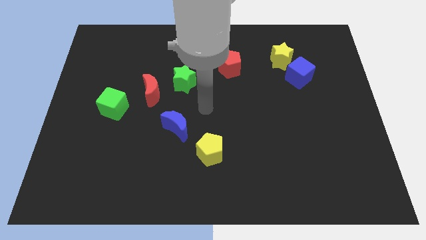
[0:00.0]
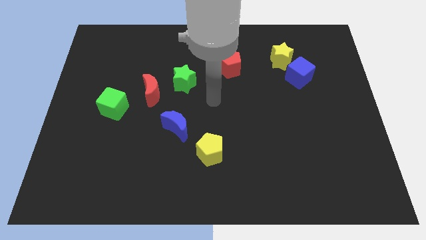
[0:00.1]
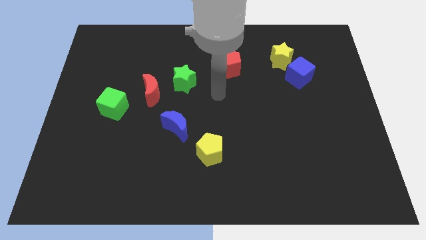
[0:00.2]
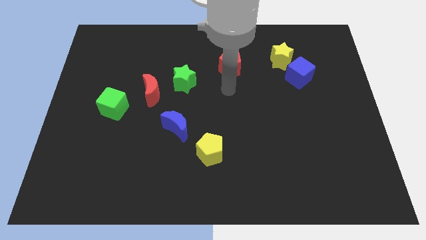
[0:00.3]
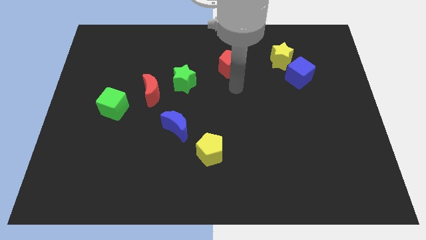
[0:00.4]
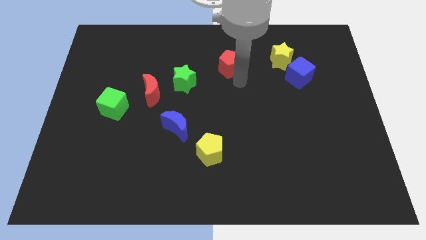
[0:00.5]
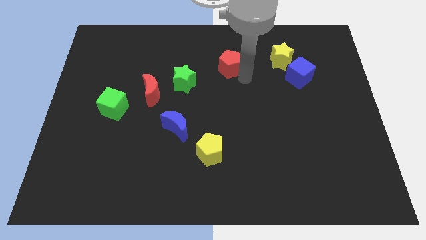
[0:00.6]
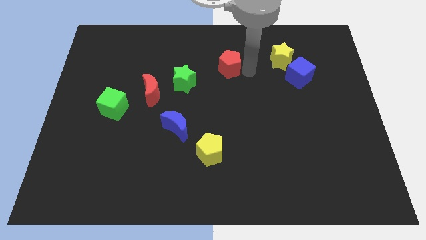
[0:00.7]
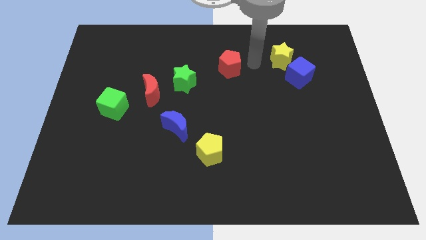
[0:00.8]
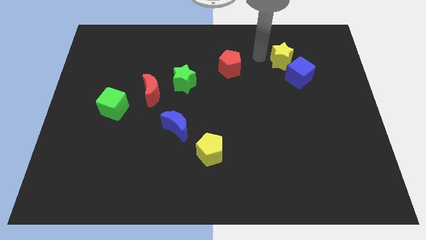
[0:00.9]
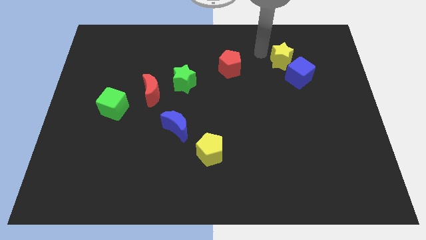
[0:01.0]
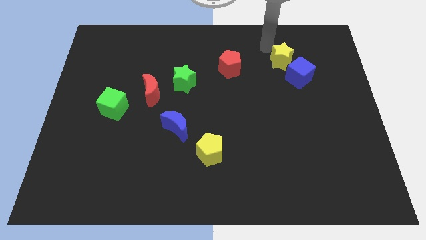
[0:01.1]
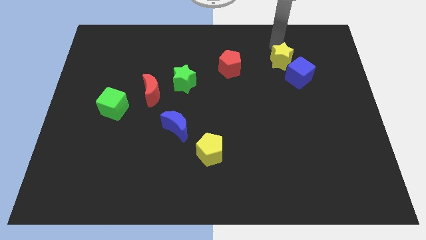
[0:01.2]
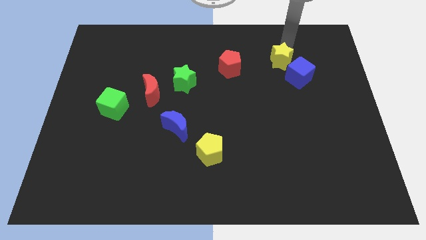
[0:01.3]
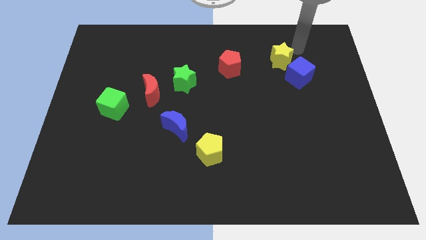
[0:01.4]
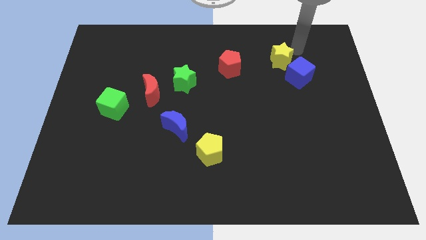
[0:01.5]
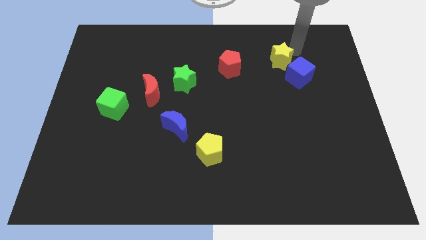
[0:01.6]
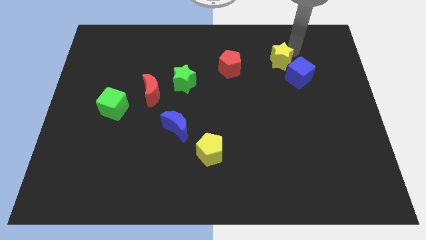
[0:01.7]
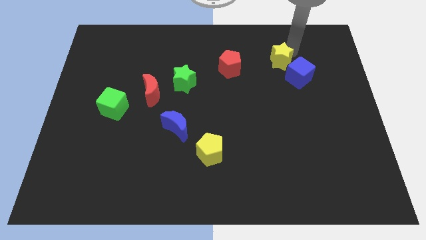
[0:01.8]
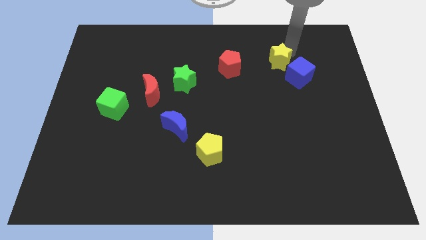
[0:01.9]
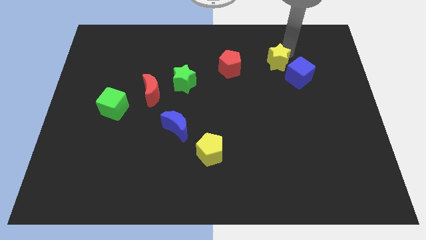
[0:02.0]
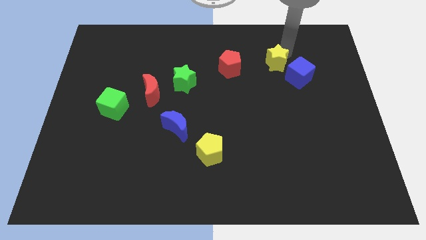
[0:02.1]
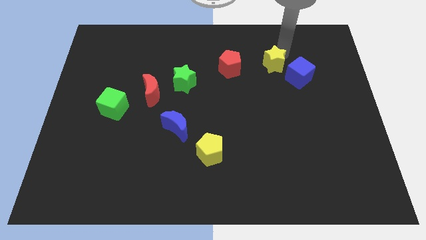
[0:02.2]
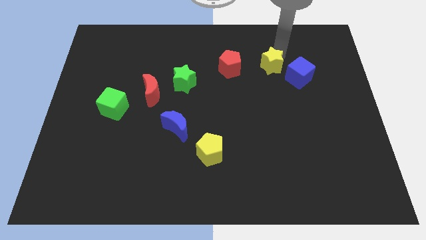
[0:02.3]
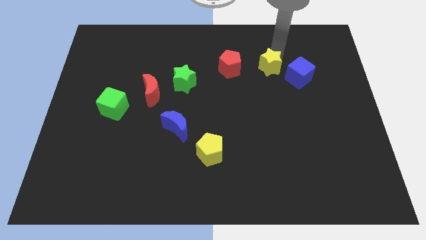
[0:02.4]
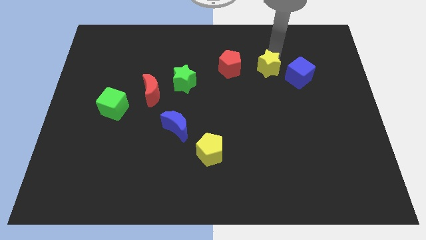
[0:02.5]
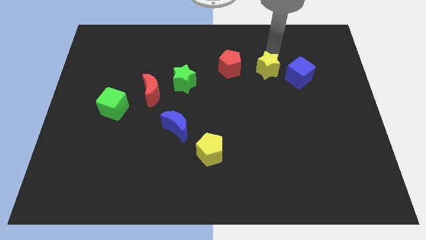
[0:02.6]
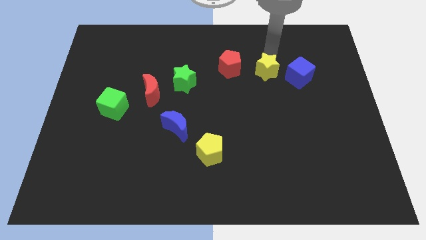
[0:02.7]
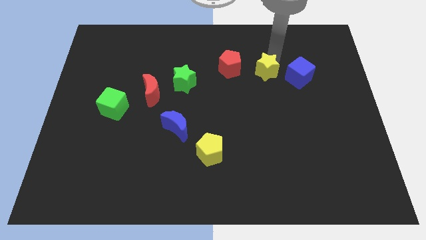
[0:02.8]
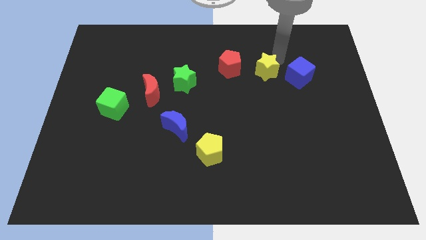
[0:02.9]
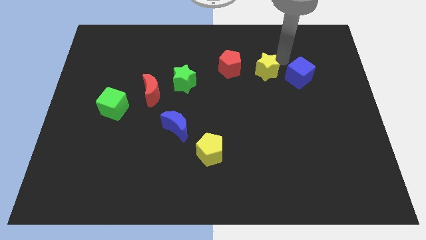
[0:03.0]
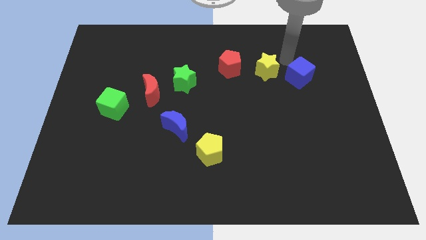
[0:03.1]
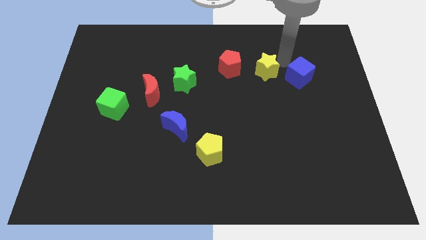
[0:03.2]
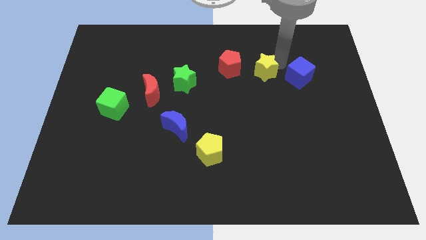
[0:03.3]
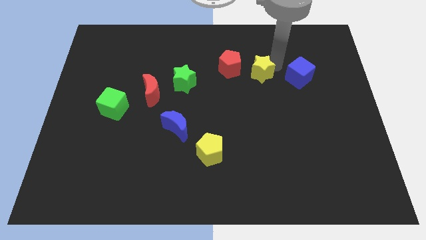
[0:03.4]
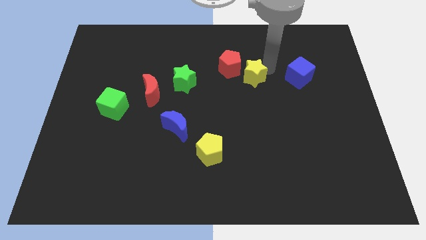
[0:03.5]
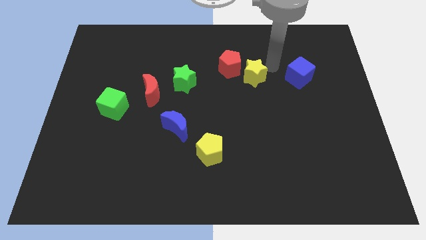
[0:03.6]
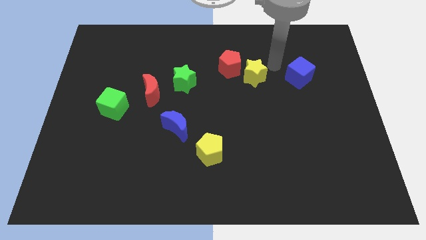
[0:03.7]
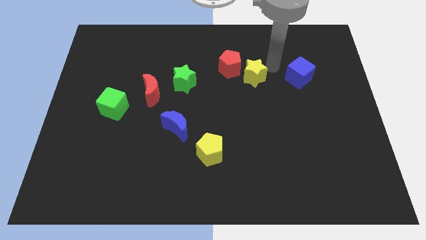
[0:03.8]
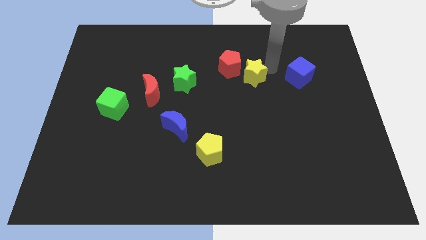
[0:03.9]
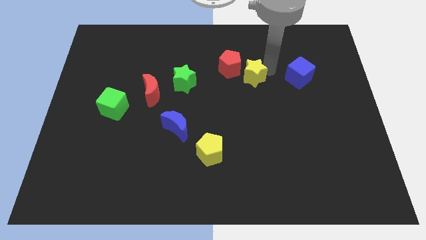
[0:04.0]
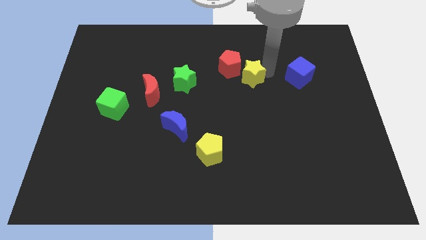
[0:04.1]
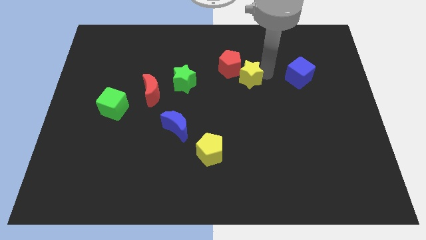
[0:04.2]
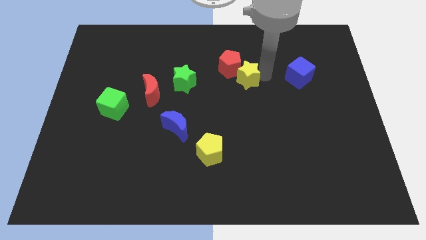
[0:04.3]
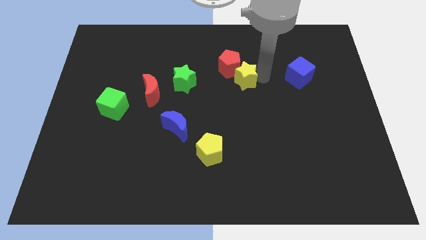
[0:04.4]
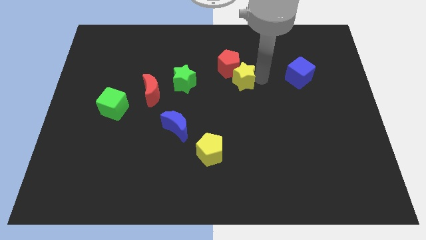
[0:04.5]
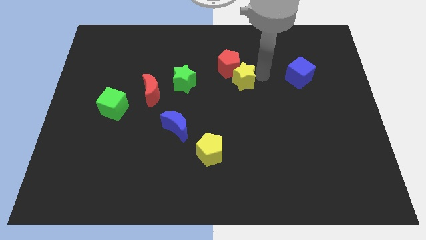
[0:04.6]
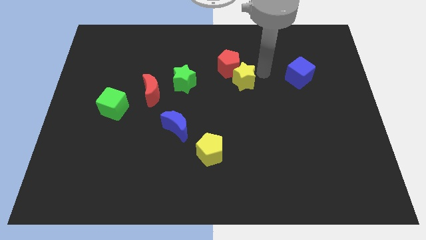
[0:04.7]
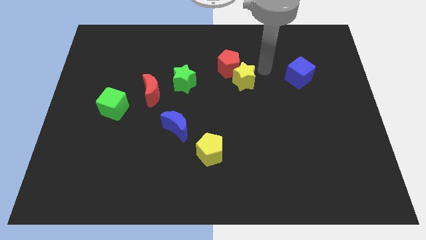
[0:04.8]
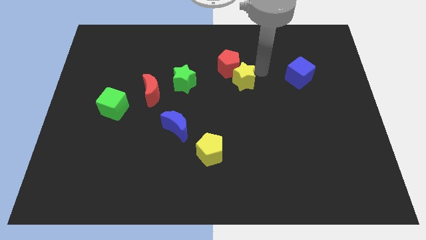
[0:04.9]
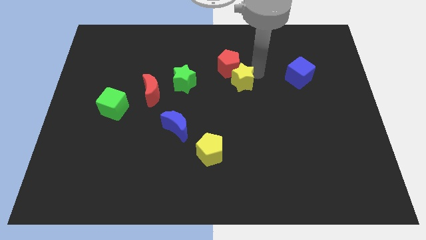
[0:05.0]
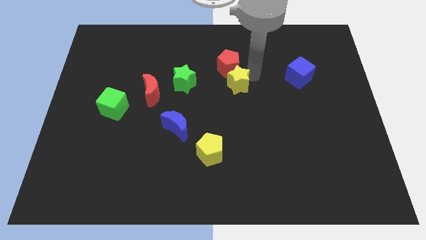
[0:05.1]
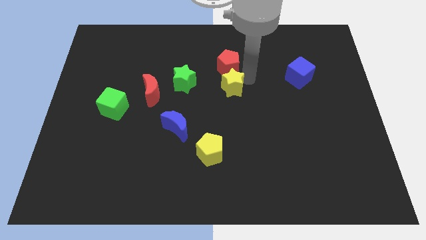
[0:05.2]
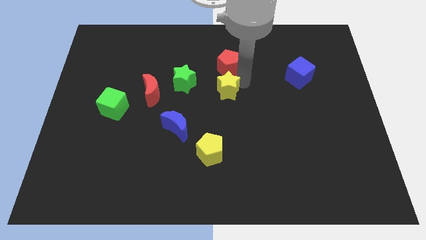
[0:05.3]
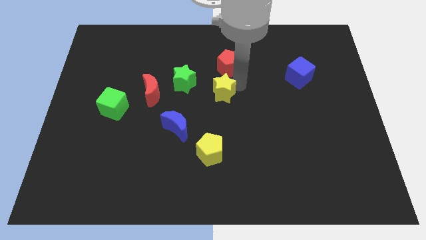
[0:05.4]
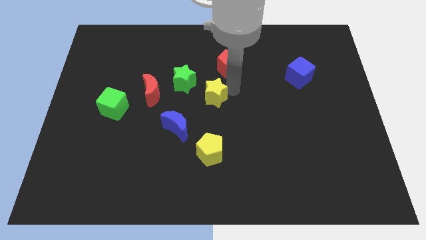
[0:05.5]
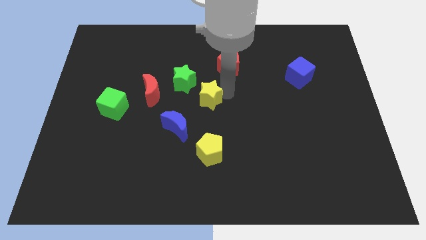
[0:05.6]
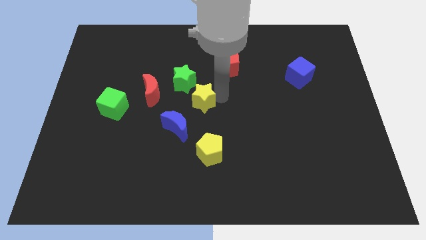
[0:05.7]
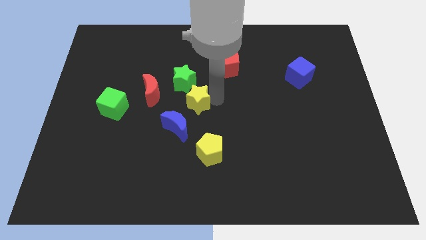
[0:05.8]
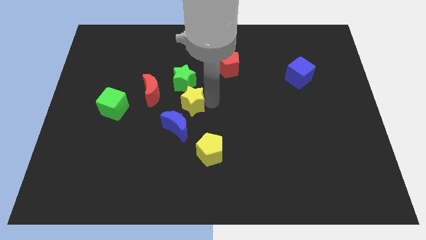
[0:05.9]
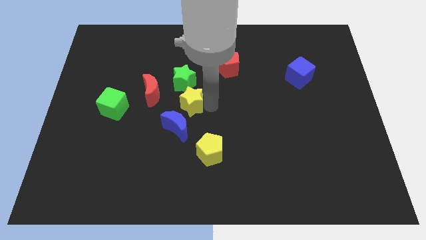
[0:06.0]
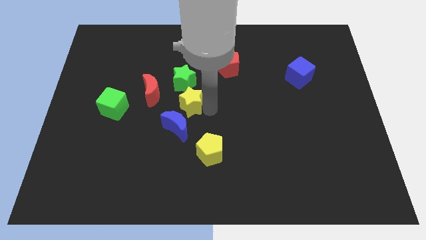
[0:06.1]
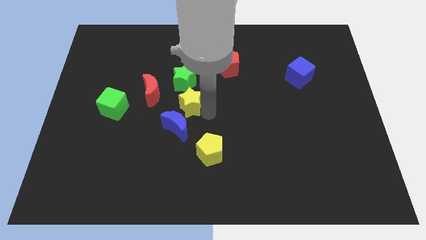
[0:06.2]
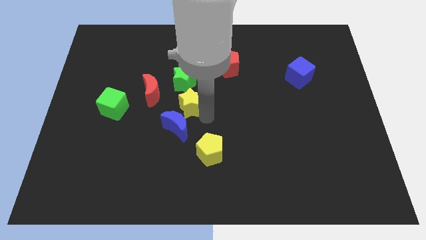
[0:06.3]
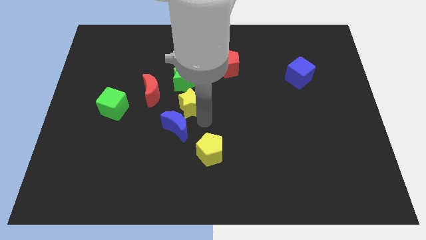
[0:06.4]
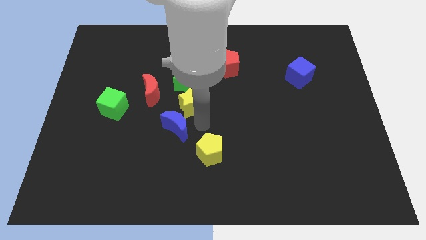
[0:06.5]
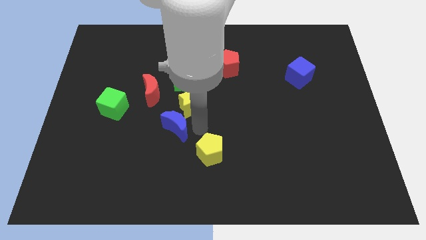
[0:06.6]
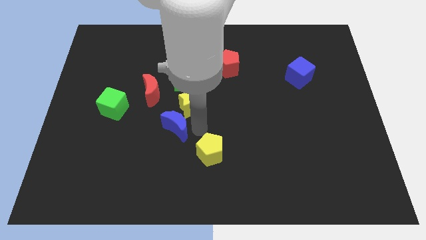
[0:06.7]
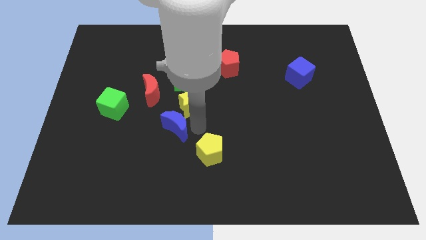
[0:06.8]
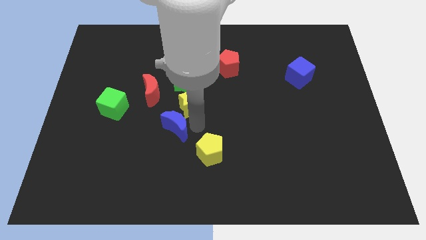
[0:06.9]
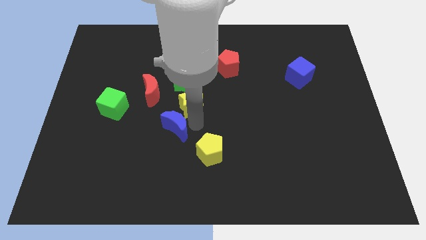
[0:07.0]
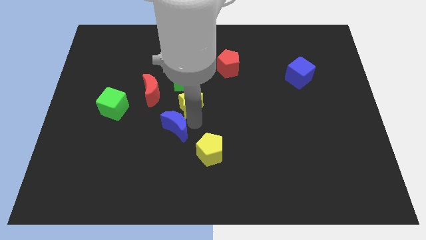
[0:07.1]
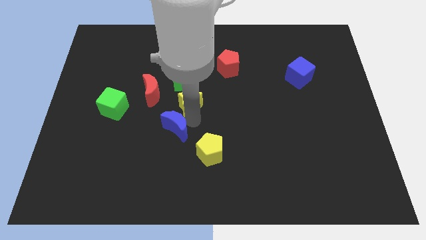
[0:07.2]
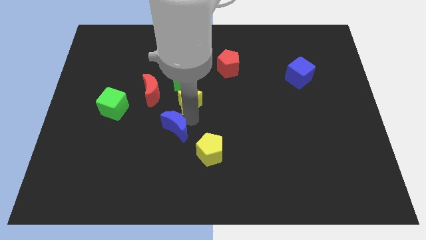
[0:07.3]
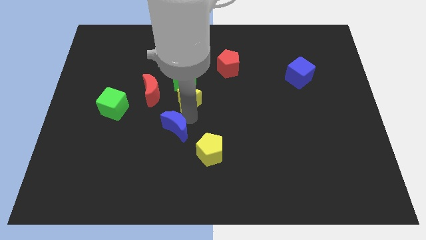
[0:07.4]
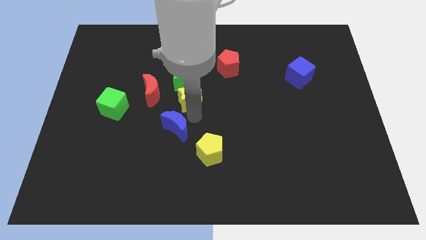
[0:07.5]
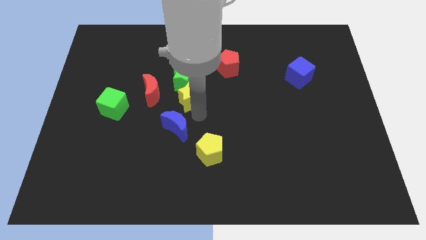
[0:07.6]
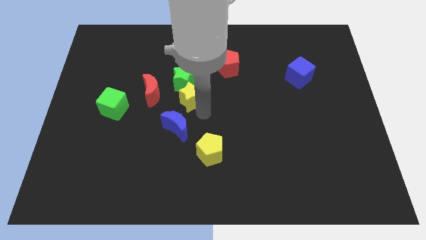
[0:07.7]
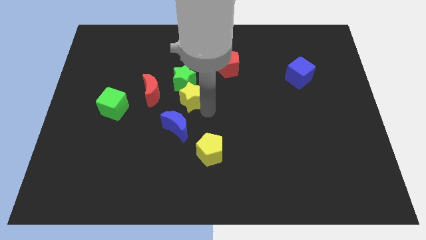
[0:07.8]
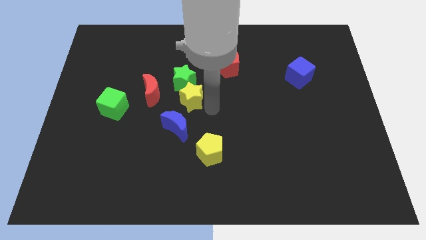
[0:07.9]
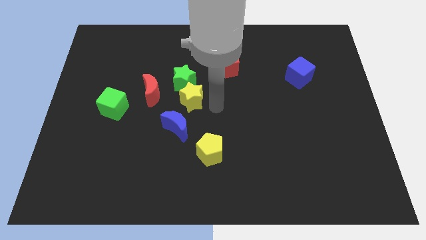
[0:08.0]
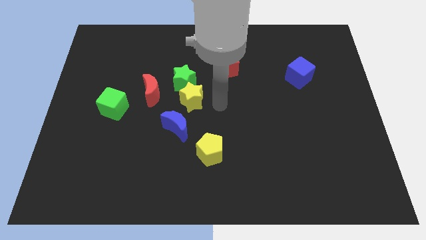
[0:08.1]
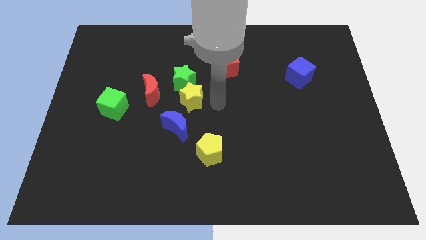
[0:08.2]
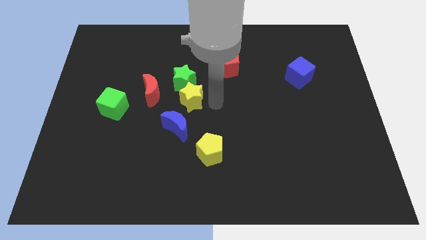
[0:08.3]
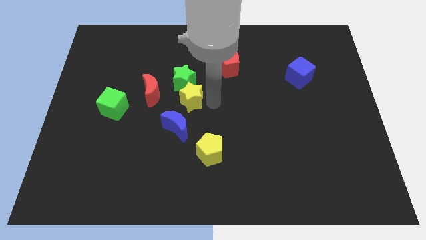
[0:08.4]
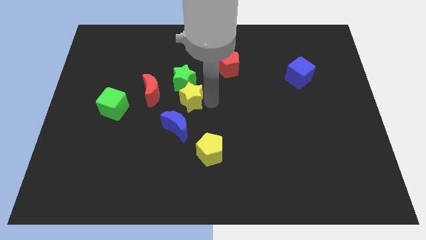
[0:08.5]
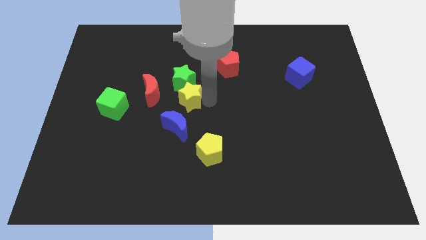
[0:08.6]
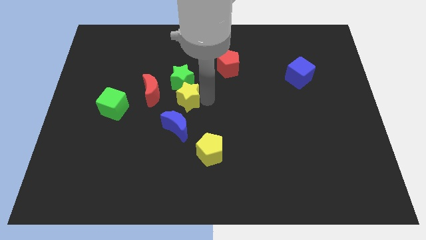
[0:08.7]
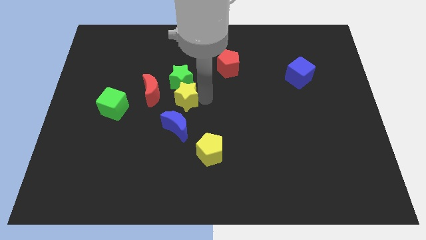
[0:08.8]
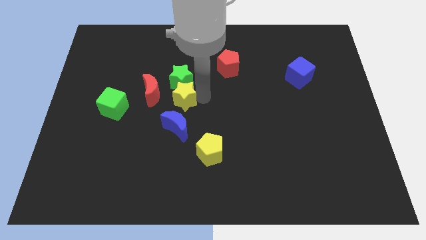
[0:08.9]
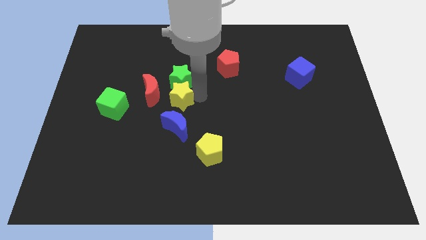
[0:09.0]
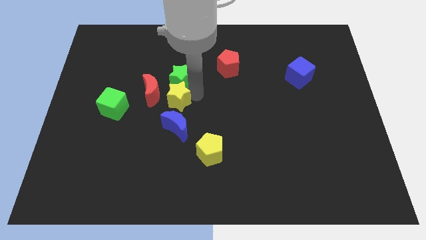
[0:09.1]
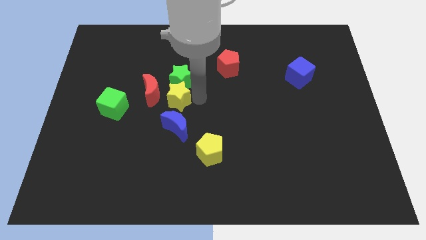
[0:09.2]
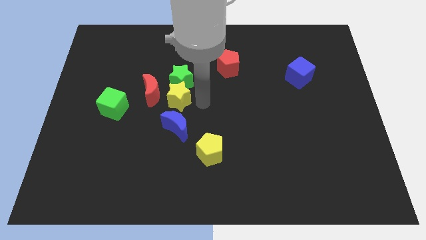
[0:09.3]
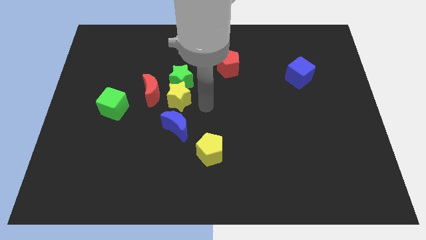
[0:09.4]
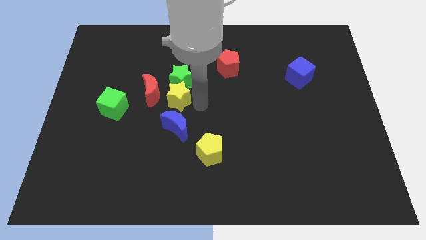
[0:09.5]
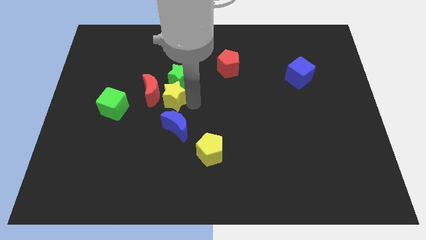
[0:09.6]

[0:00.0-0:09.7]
push the yellow star towards the red moon
